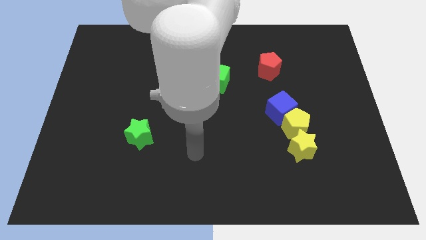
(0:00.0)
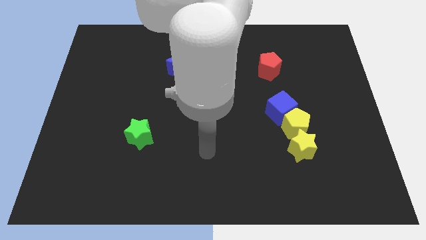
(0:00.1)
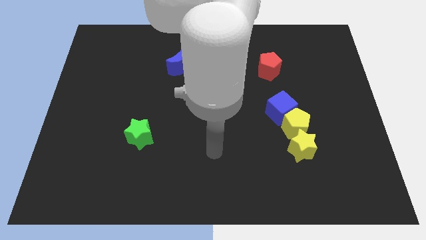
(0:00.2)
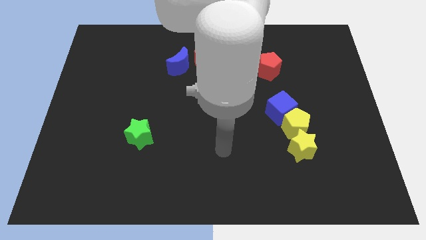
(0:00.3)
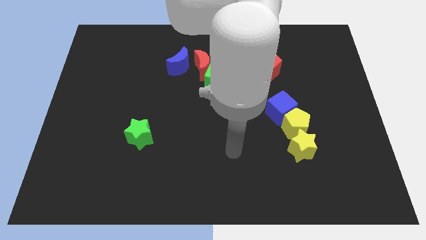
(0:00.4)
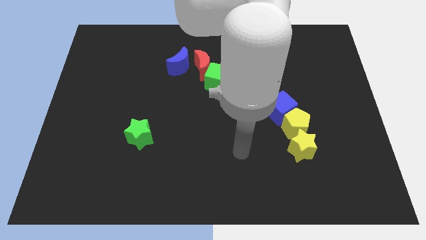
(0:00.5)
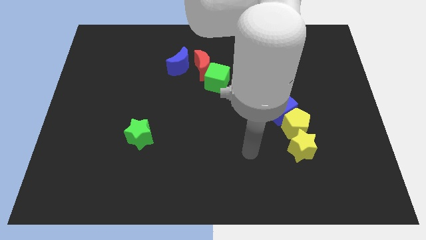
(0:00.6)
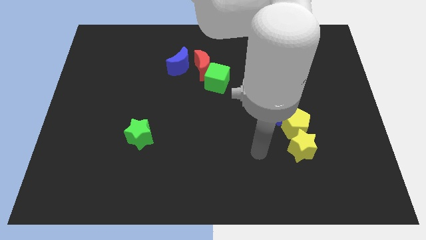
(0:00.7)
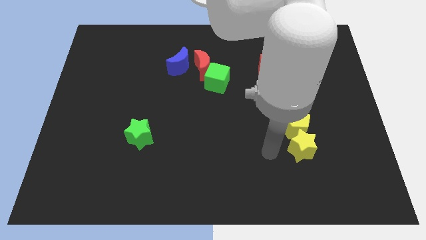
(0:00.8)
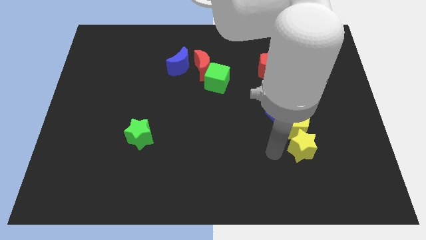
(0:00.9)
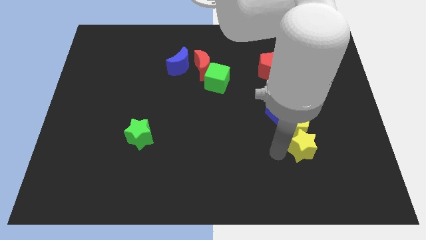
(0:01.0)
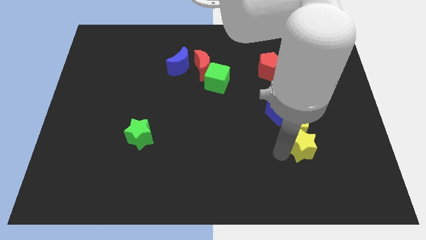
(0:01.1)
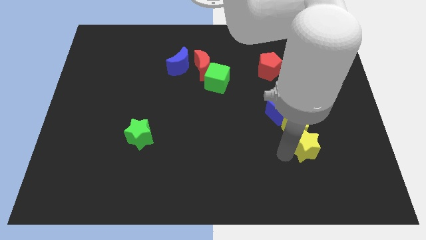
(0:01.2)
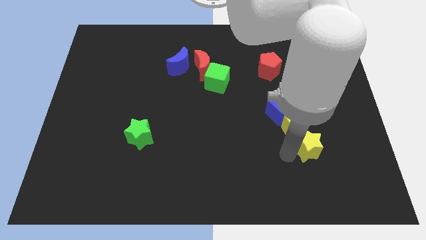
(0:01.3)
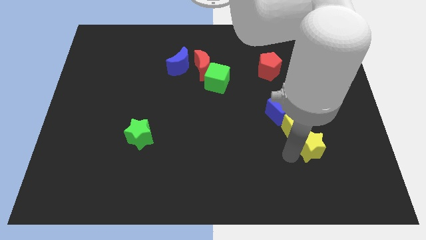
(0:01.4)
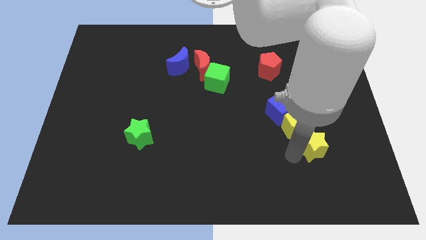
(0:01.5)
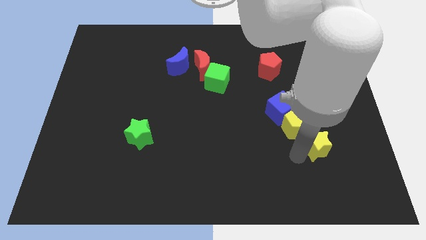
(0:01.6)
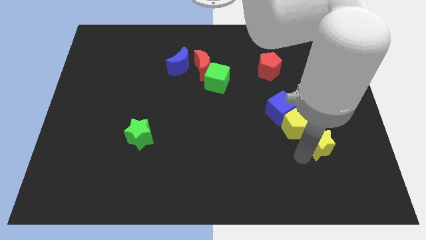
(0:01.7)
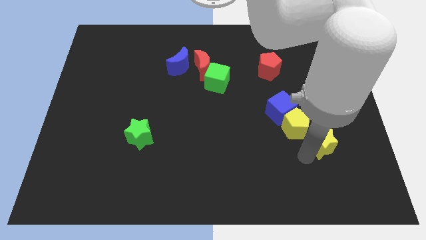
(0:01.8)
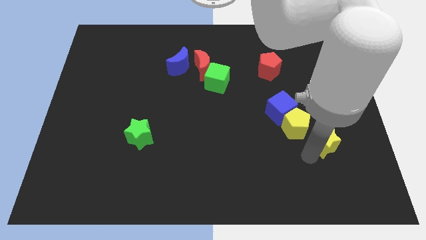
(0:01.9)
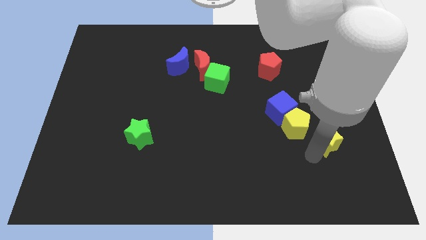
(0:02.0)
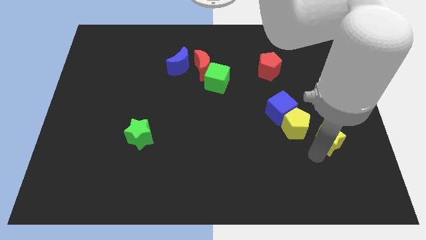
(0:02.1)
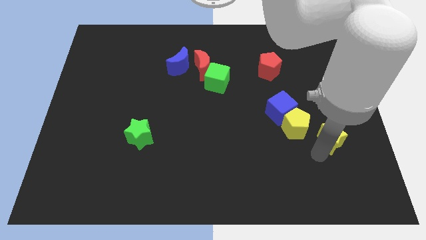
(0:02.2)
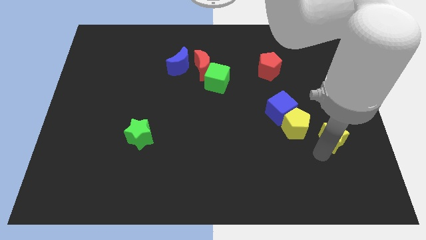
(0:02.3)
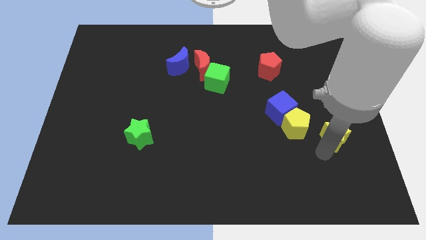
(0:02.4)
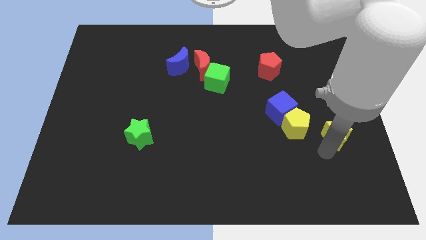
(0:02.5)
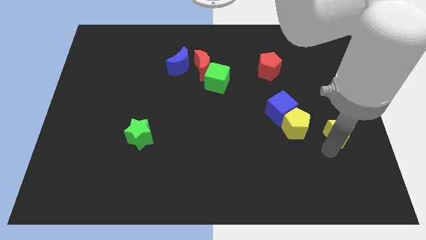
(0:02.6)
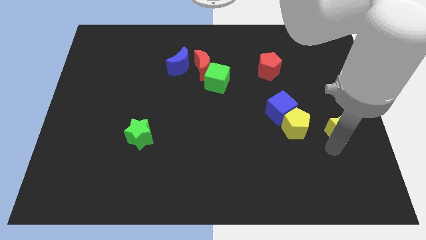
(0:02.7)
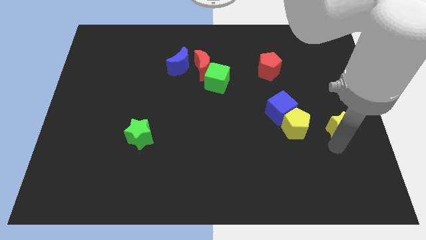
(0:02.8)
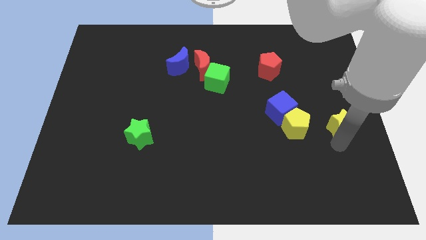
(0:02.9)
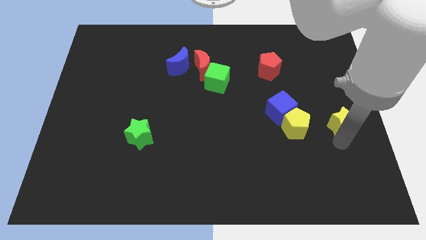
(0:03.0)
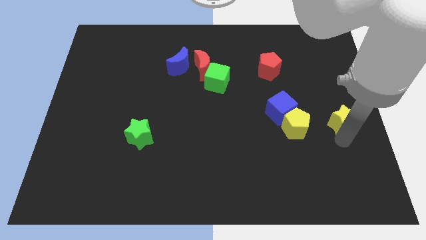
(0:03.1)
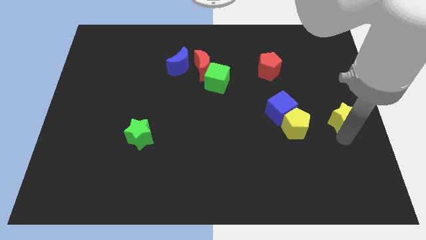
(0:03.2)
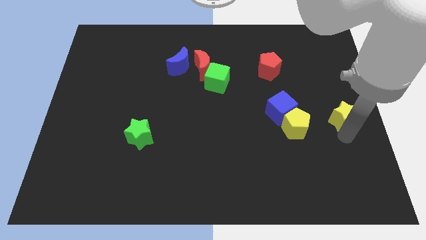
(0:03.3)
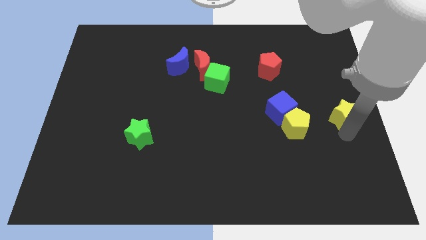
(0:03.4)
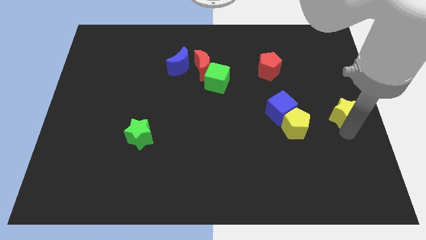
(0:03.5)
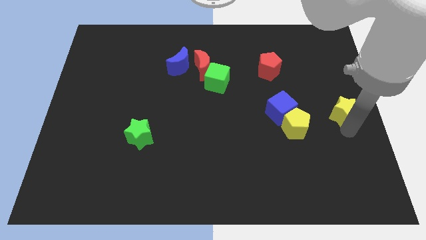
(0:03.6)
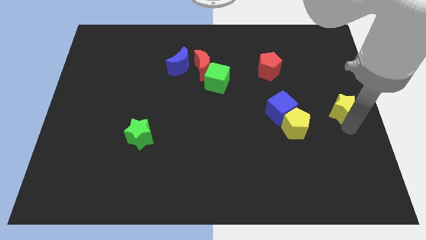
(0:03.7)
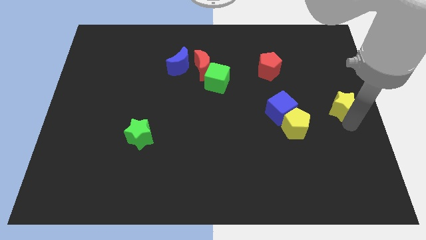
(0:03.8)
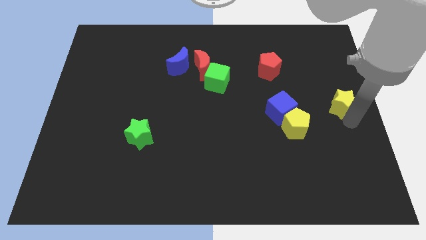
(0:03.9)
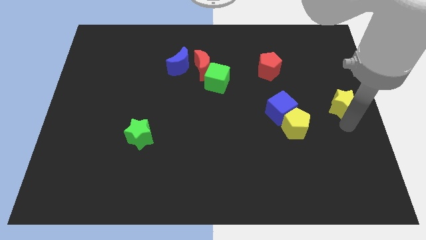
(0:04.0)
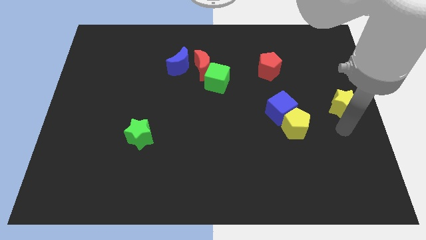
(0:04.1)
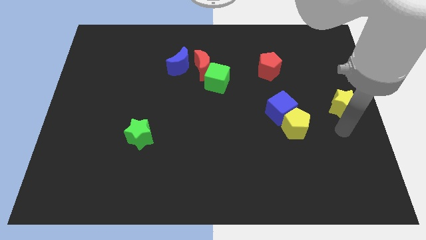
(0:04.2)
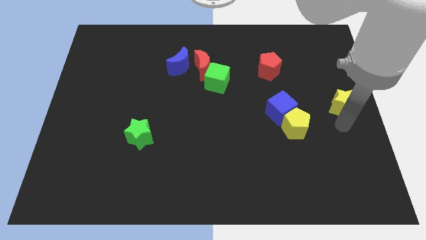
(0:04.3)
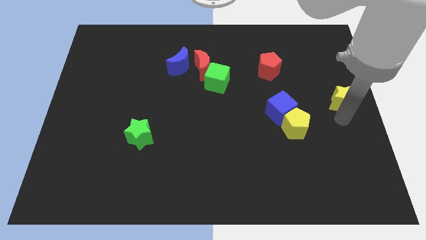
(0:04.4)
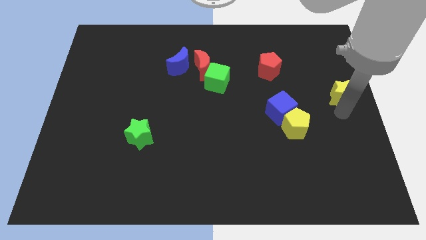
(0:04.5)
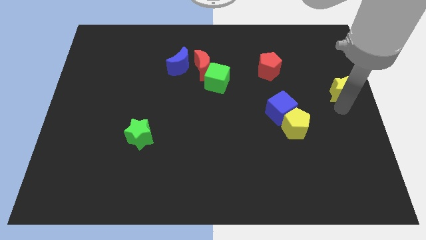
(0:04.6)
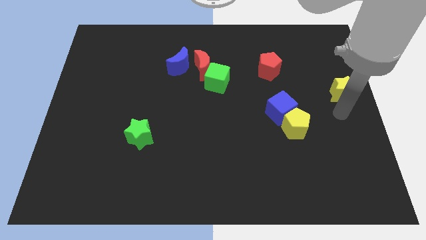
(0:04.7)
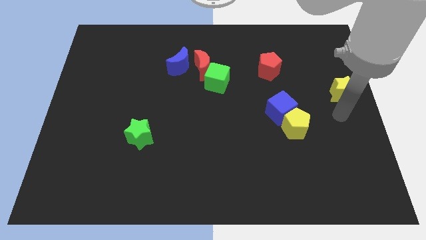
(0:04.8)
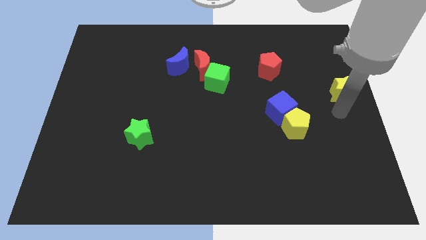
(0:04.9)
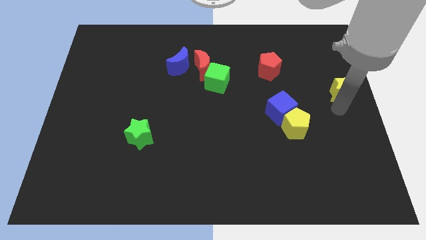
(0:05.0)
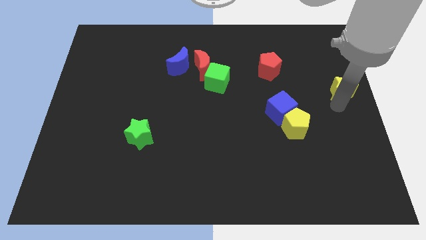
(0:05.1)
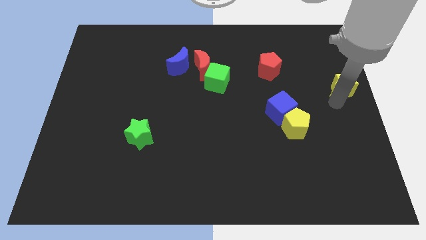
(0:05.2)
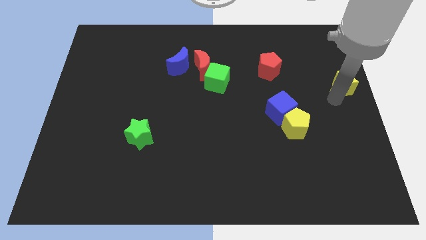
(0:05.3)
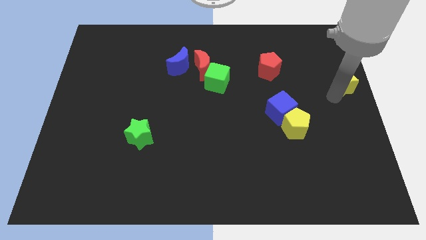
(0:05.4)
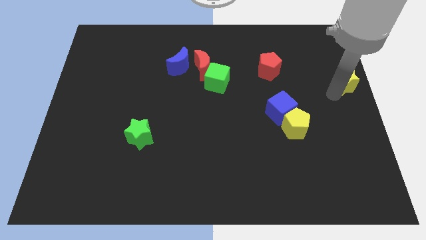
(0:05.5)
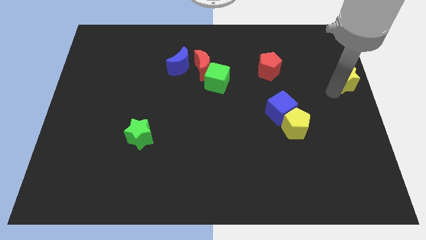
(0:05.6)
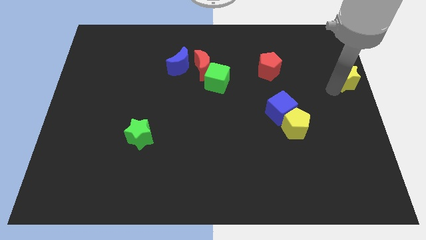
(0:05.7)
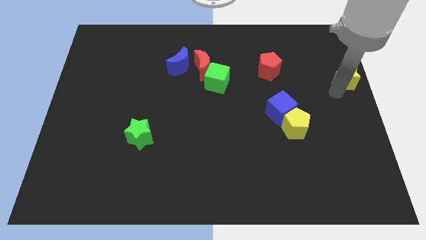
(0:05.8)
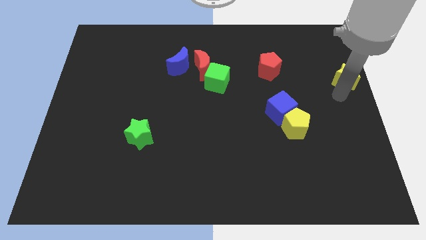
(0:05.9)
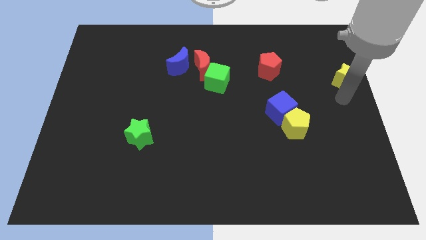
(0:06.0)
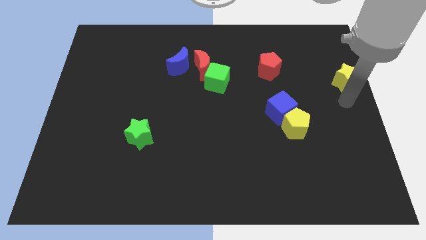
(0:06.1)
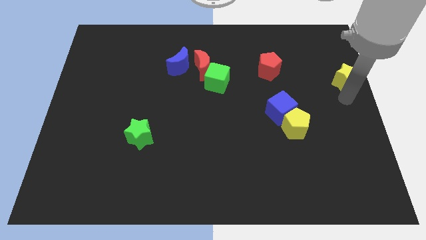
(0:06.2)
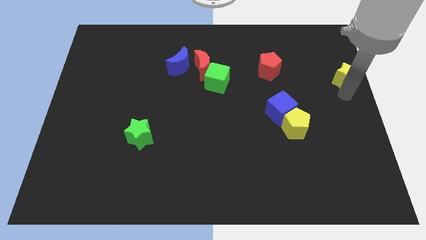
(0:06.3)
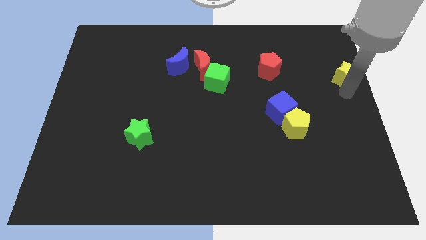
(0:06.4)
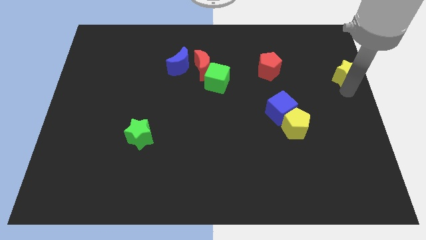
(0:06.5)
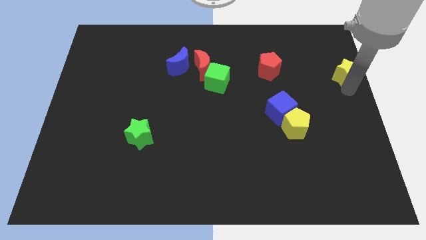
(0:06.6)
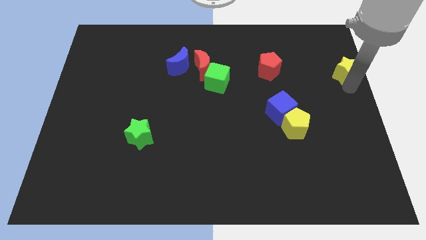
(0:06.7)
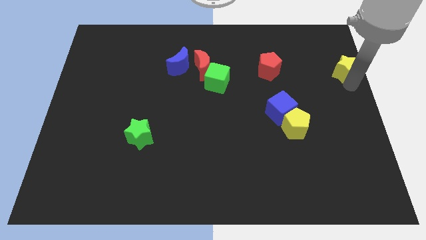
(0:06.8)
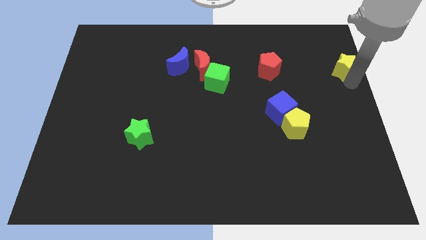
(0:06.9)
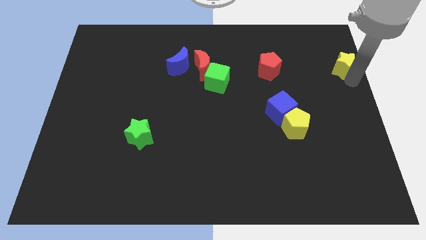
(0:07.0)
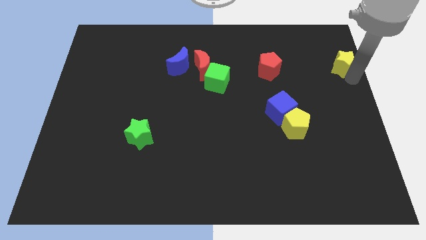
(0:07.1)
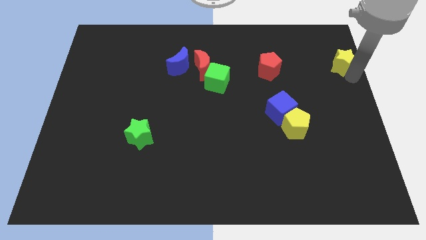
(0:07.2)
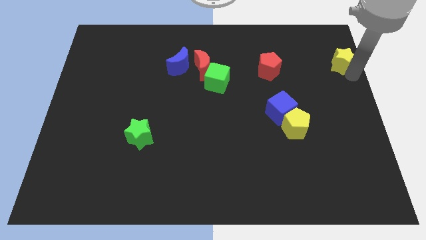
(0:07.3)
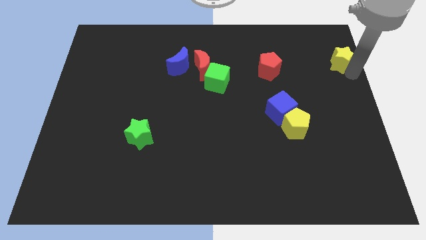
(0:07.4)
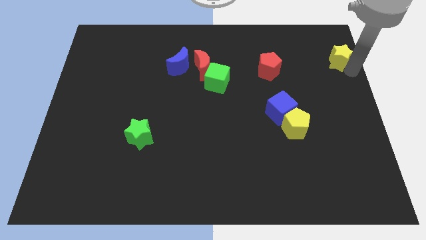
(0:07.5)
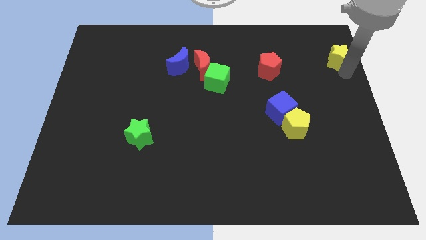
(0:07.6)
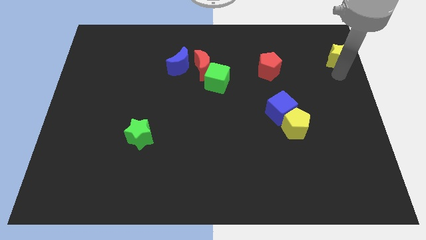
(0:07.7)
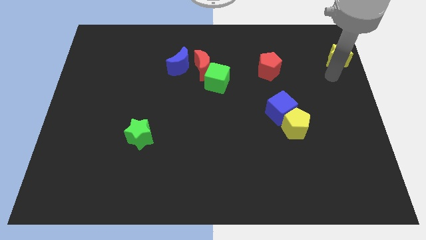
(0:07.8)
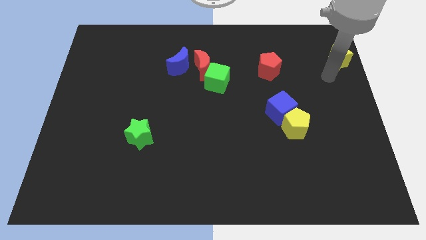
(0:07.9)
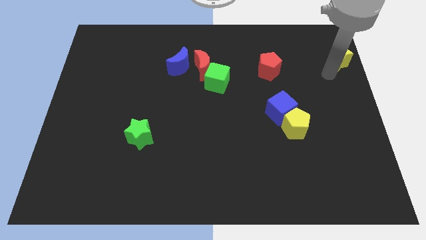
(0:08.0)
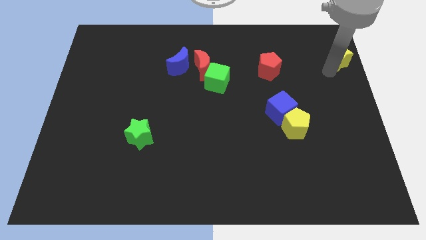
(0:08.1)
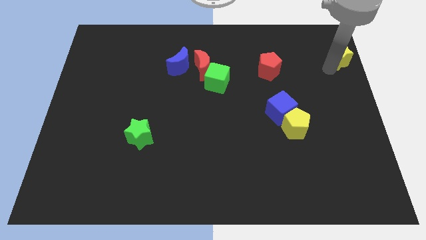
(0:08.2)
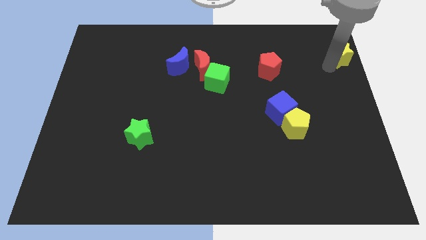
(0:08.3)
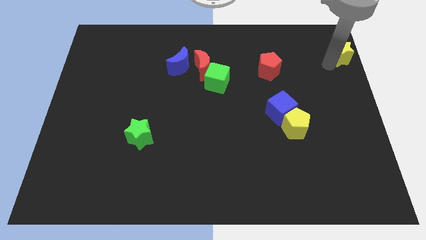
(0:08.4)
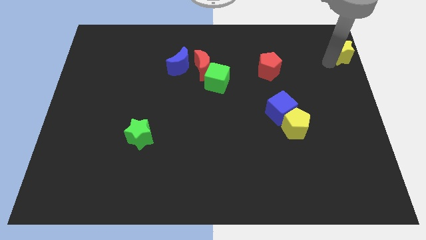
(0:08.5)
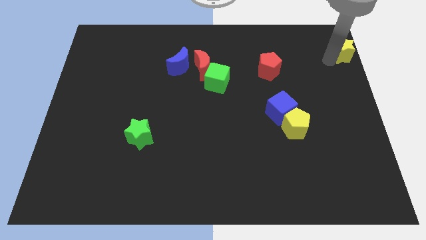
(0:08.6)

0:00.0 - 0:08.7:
push the yellow star to the upper right corner
